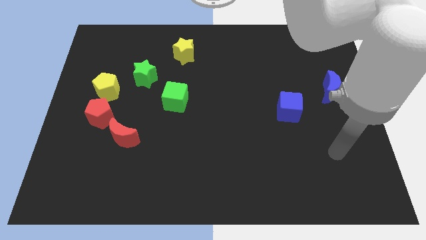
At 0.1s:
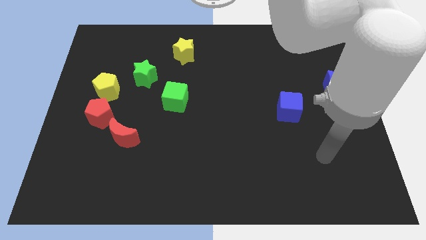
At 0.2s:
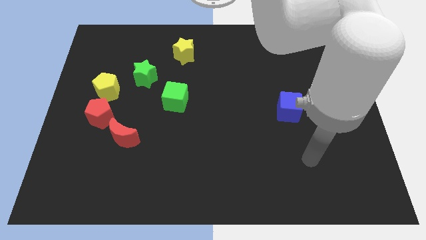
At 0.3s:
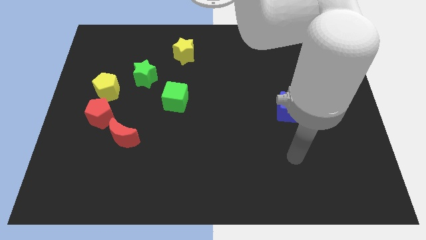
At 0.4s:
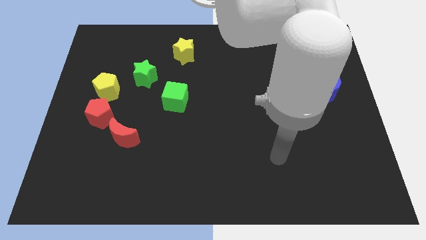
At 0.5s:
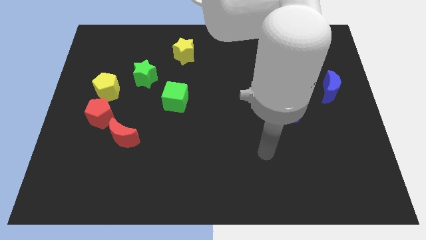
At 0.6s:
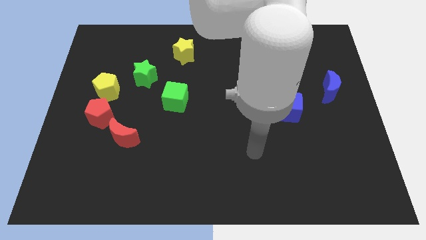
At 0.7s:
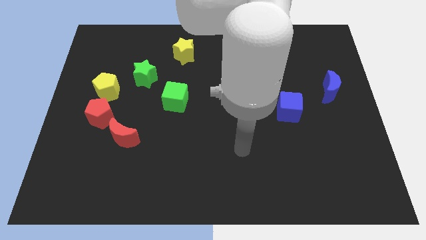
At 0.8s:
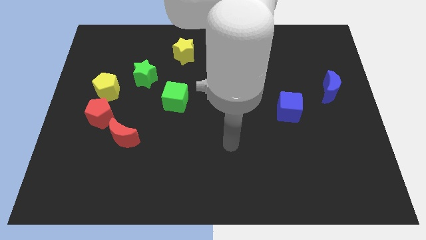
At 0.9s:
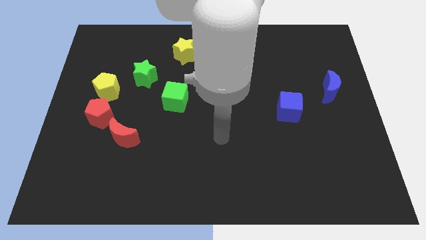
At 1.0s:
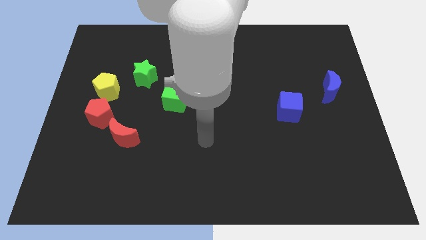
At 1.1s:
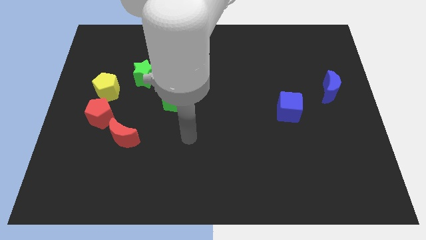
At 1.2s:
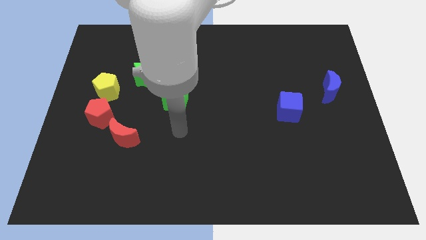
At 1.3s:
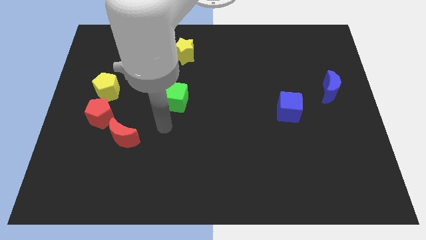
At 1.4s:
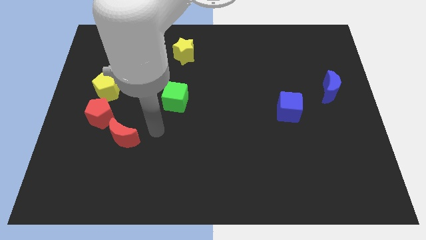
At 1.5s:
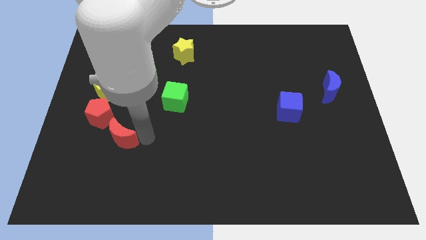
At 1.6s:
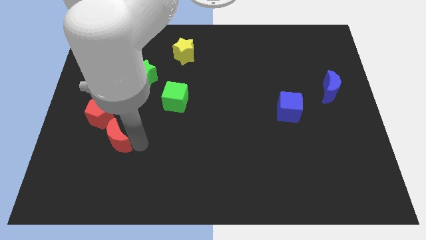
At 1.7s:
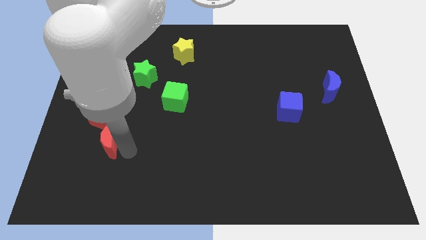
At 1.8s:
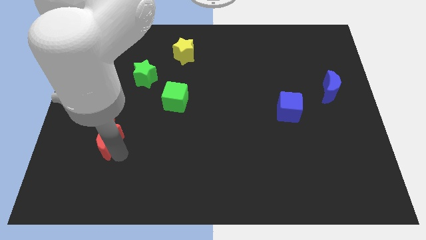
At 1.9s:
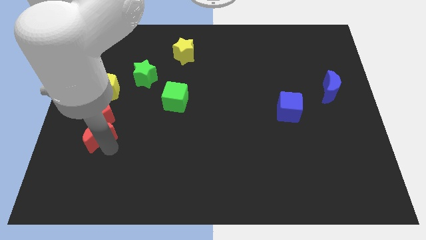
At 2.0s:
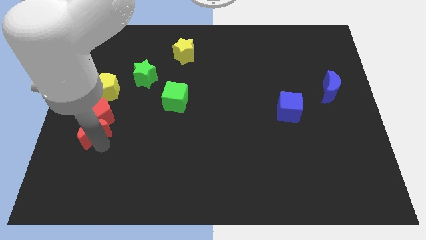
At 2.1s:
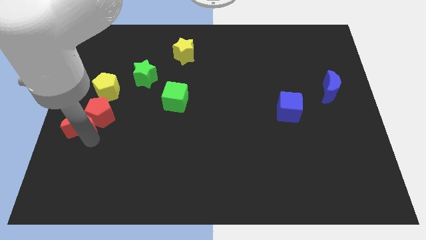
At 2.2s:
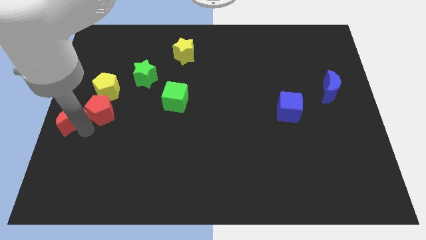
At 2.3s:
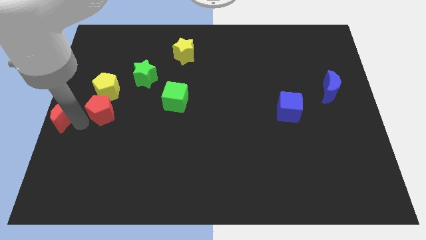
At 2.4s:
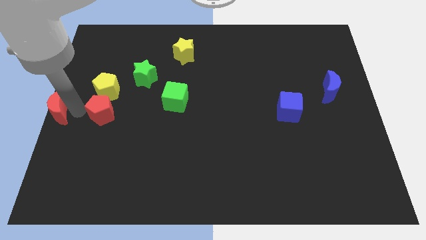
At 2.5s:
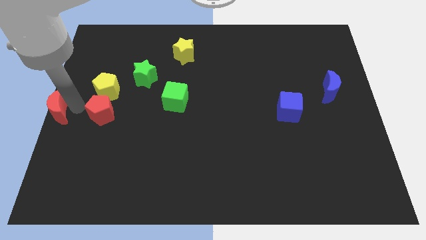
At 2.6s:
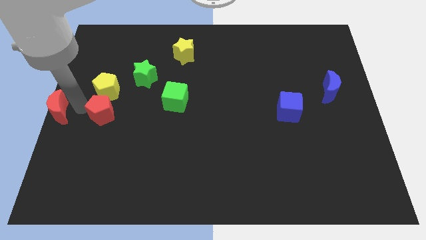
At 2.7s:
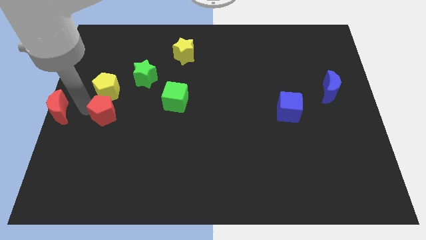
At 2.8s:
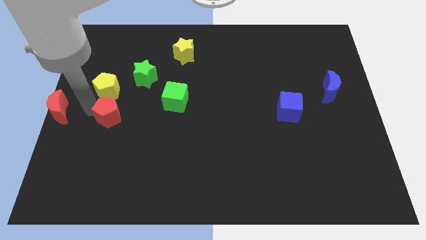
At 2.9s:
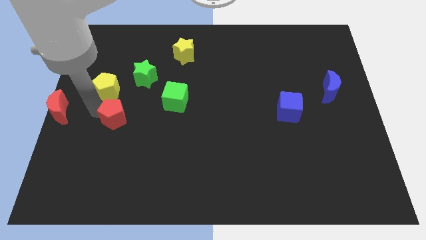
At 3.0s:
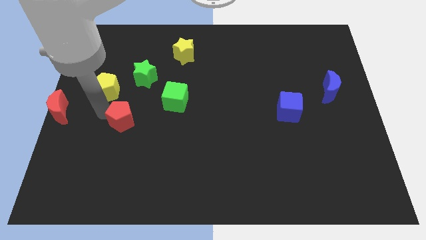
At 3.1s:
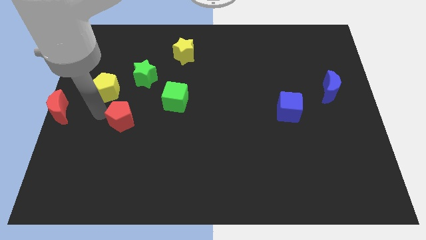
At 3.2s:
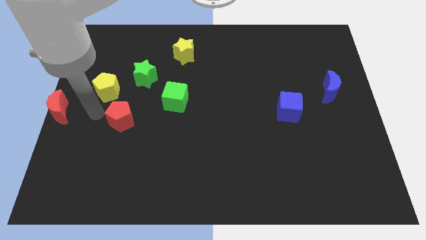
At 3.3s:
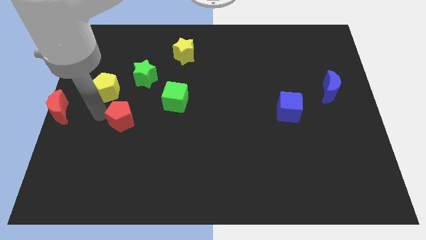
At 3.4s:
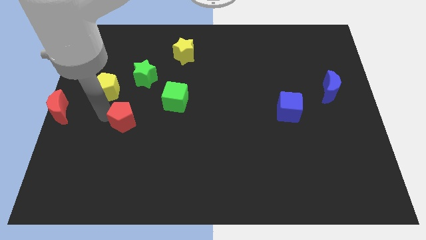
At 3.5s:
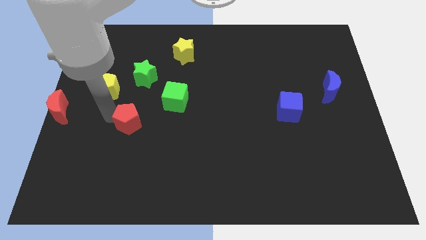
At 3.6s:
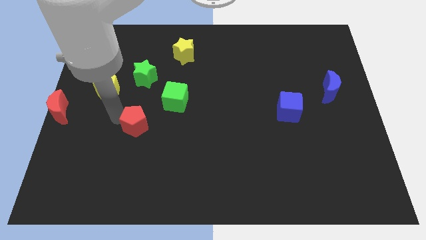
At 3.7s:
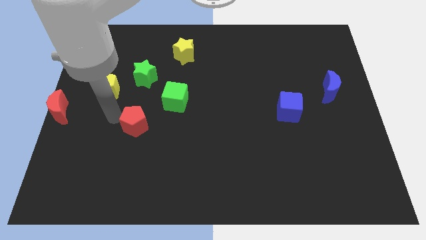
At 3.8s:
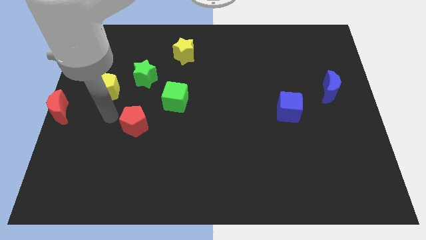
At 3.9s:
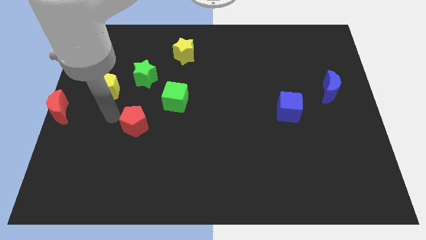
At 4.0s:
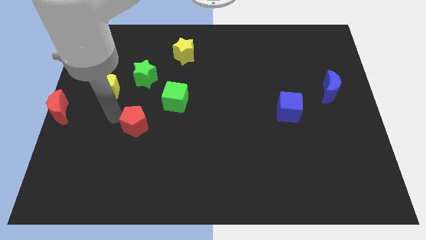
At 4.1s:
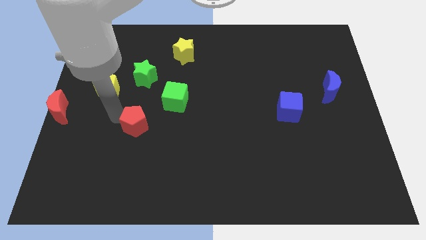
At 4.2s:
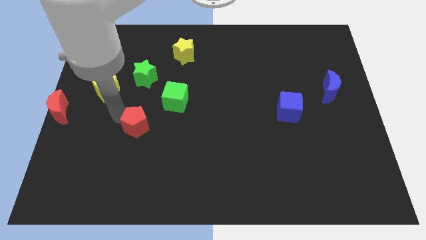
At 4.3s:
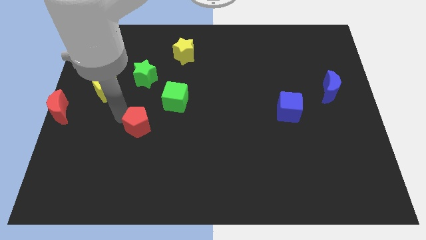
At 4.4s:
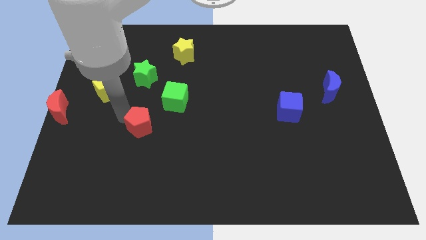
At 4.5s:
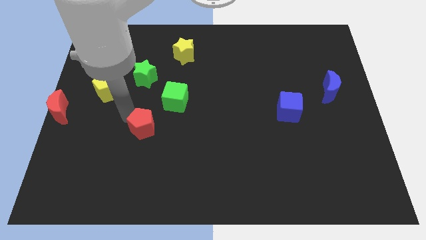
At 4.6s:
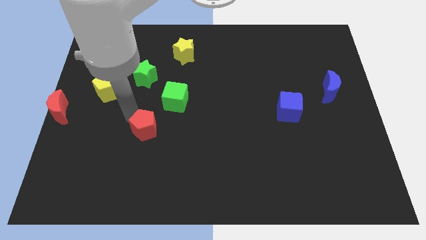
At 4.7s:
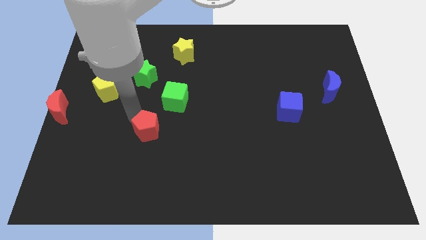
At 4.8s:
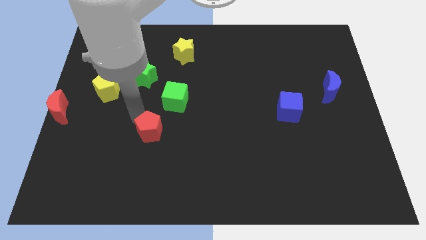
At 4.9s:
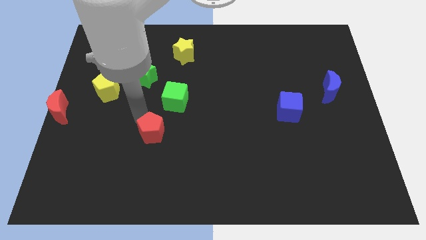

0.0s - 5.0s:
slide the red pentagon to the bottom of the green cube

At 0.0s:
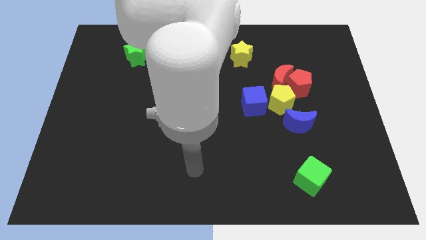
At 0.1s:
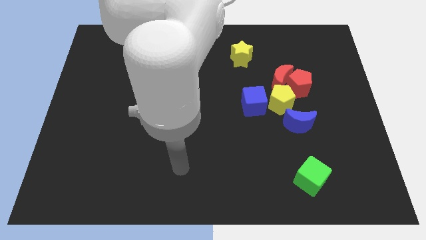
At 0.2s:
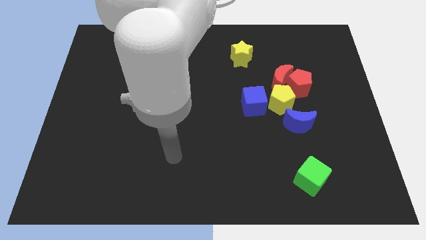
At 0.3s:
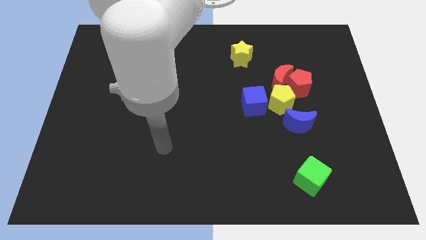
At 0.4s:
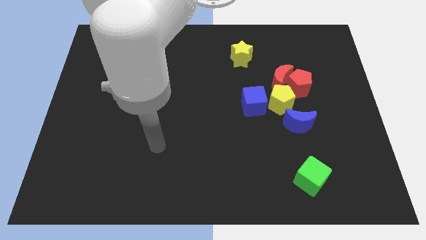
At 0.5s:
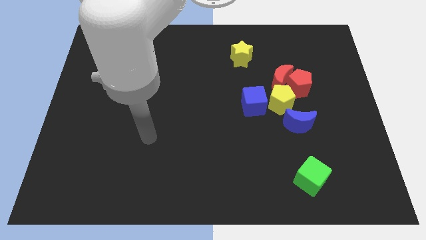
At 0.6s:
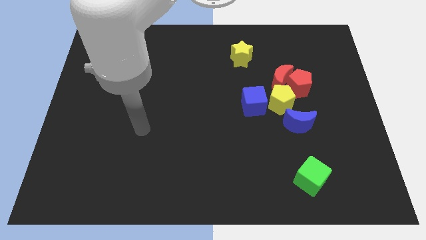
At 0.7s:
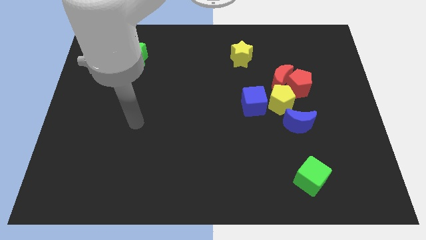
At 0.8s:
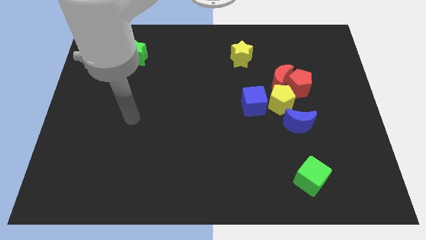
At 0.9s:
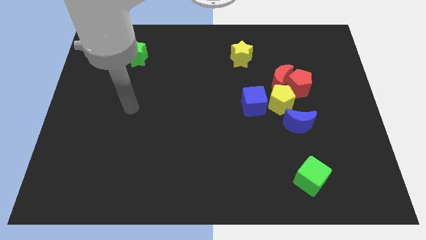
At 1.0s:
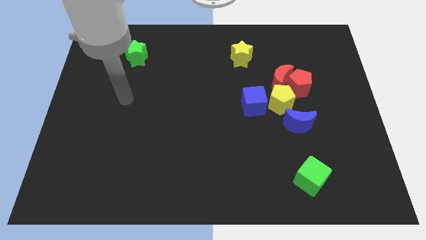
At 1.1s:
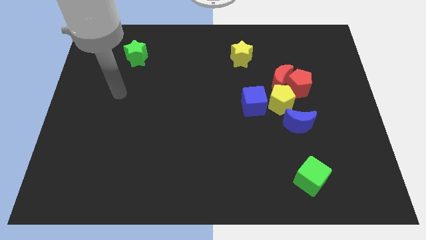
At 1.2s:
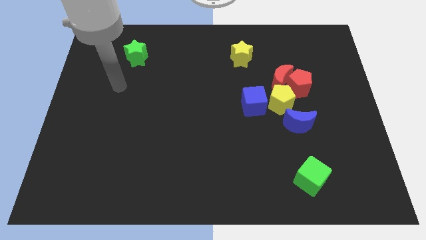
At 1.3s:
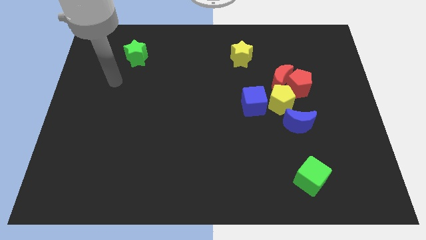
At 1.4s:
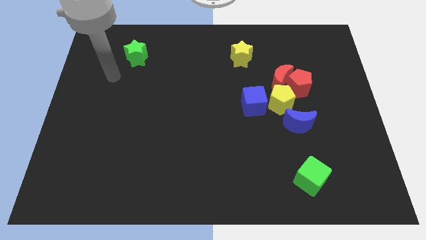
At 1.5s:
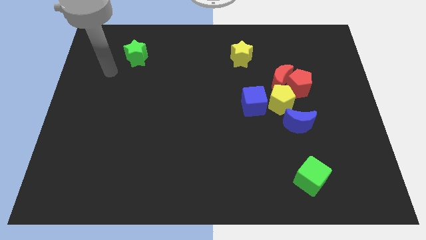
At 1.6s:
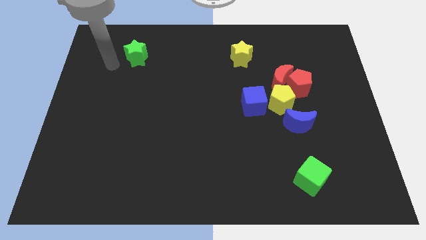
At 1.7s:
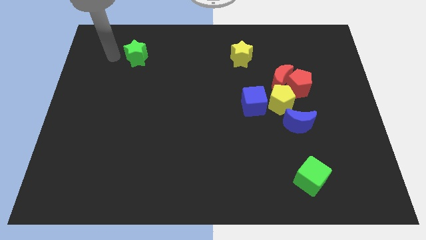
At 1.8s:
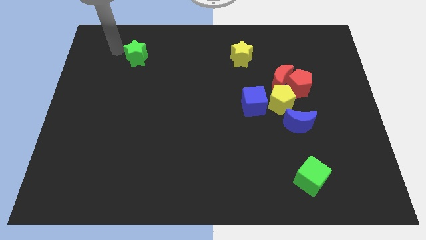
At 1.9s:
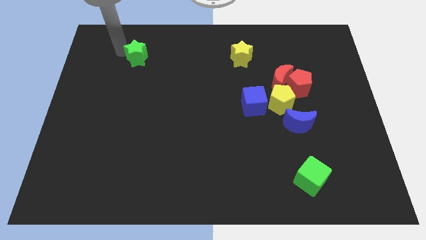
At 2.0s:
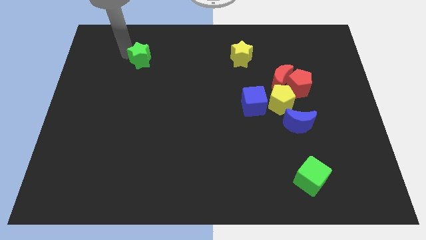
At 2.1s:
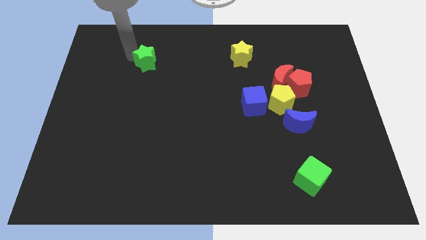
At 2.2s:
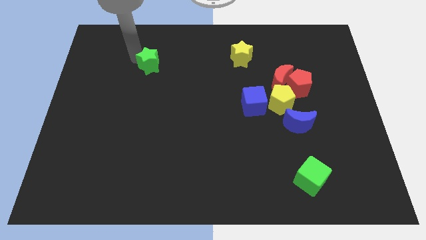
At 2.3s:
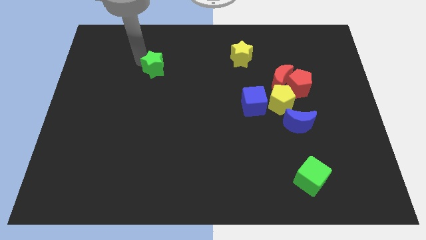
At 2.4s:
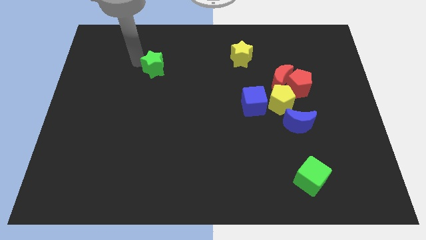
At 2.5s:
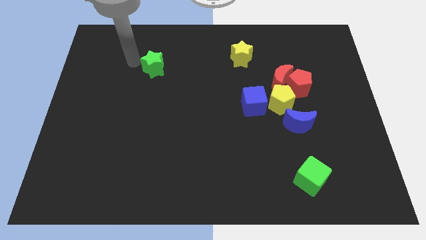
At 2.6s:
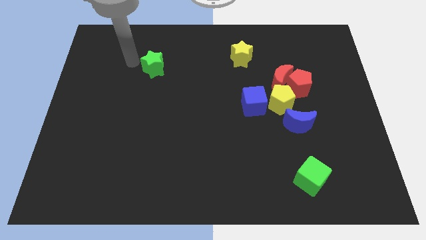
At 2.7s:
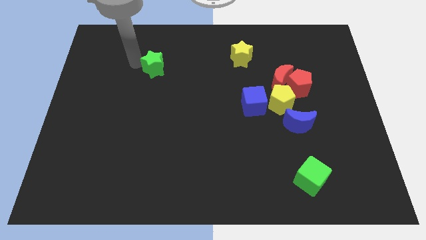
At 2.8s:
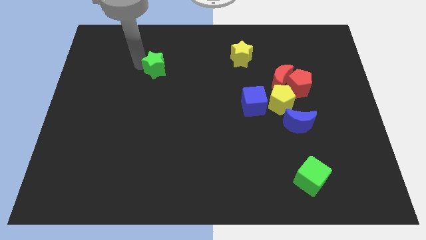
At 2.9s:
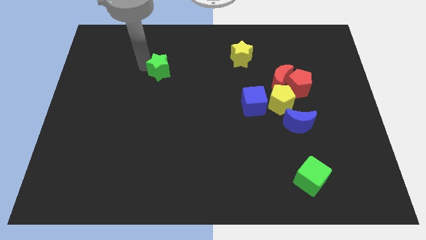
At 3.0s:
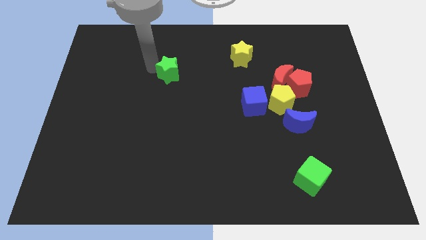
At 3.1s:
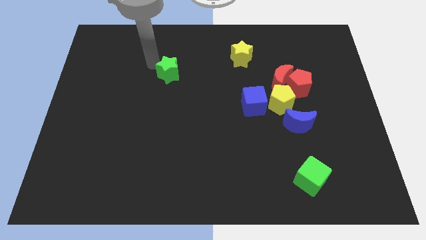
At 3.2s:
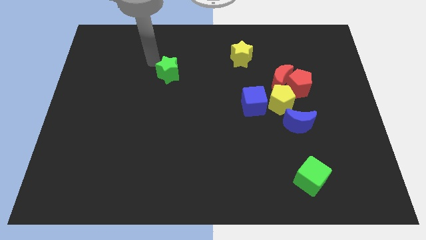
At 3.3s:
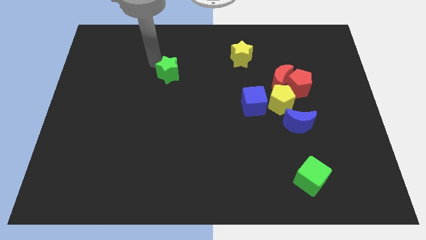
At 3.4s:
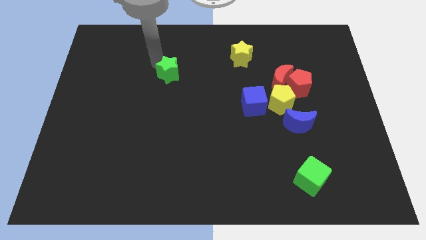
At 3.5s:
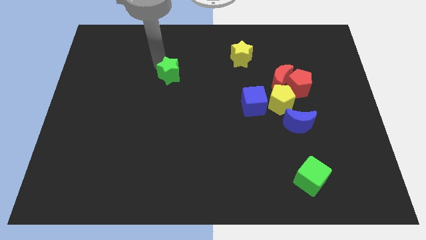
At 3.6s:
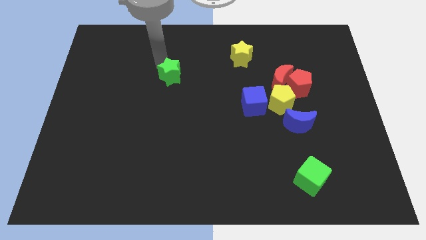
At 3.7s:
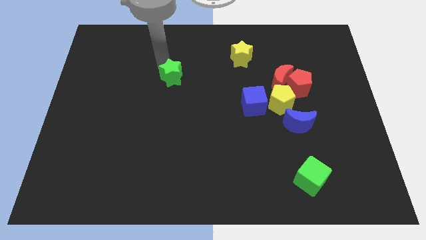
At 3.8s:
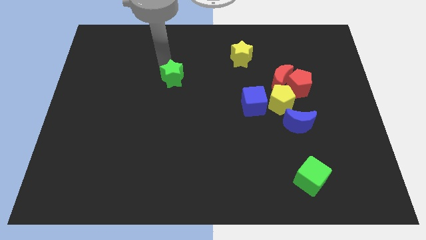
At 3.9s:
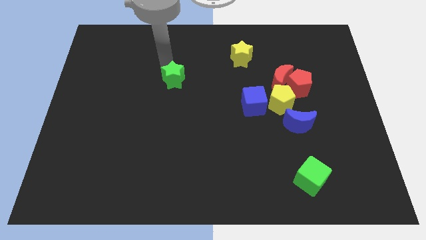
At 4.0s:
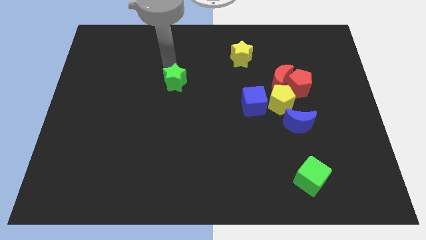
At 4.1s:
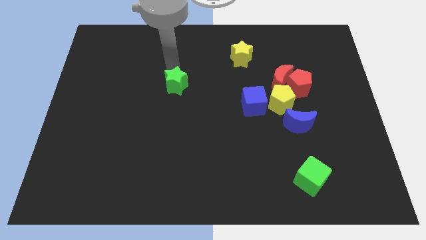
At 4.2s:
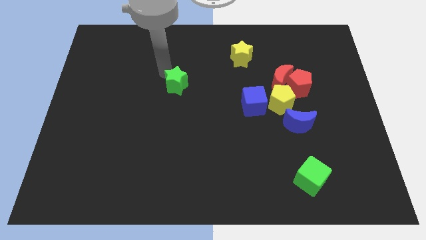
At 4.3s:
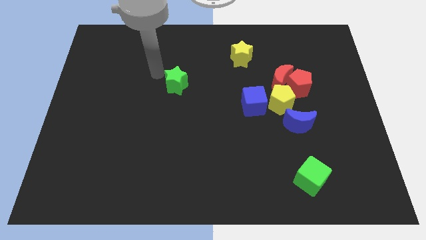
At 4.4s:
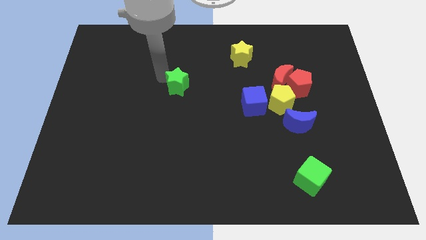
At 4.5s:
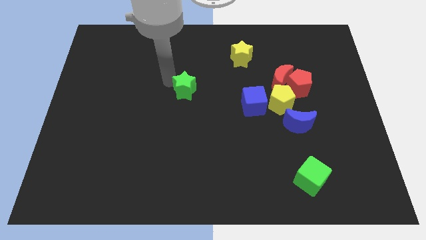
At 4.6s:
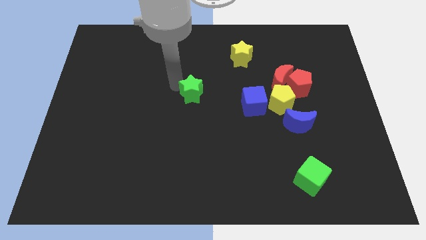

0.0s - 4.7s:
push the green star left of the blue cube
